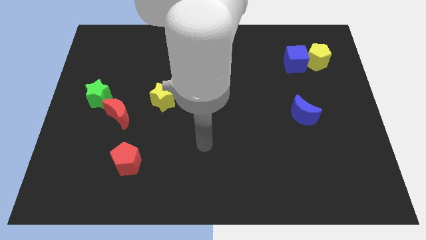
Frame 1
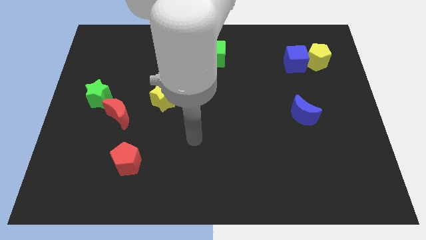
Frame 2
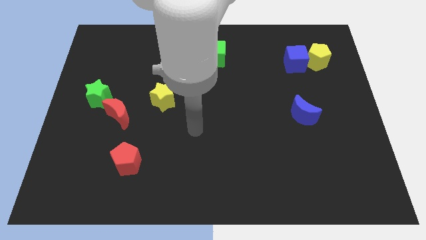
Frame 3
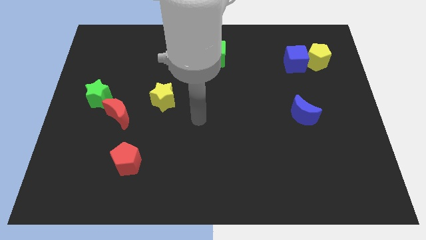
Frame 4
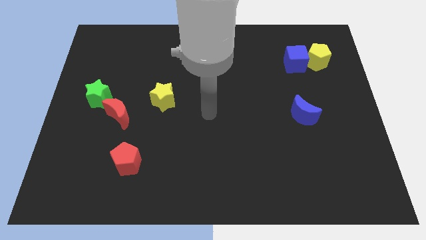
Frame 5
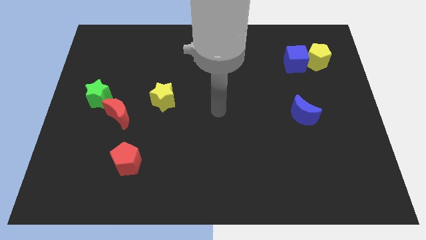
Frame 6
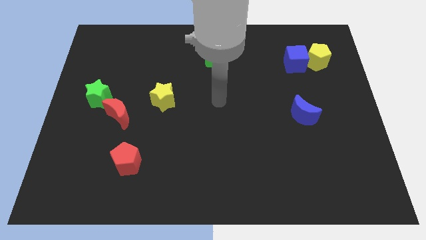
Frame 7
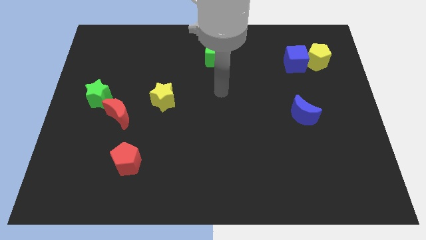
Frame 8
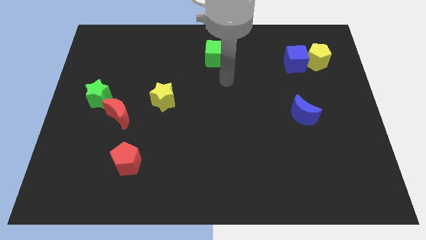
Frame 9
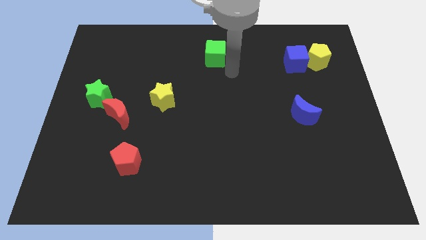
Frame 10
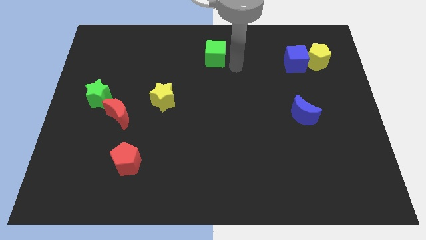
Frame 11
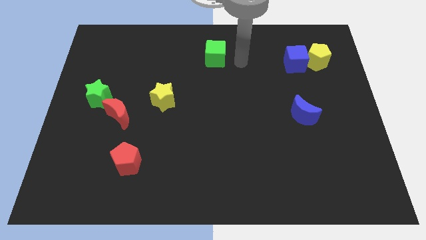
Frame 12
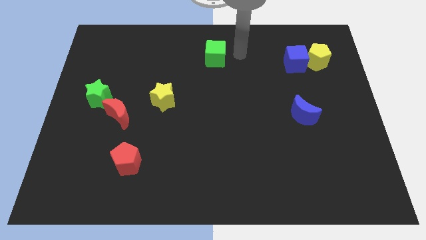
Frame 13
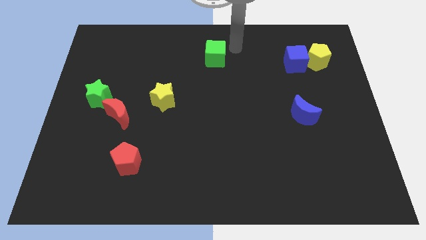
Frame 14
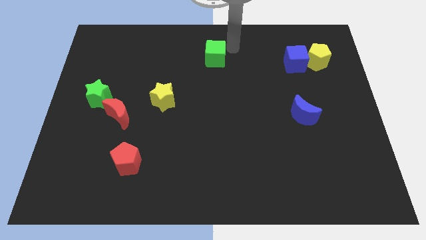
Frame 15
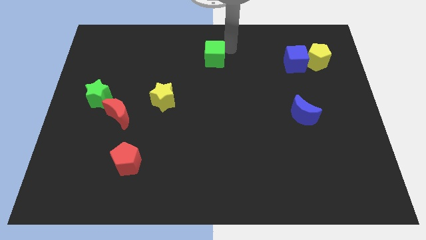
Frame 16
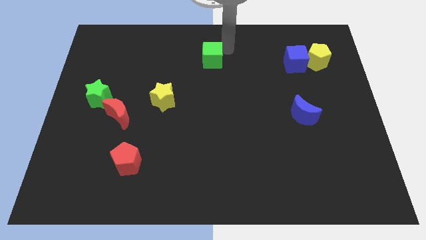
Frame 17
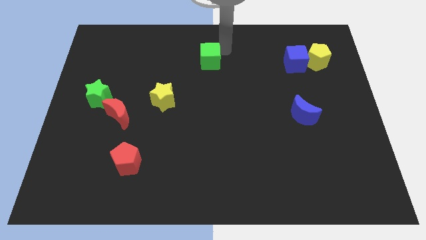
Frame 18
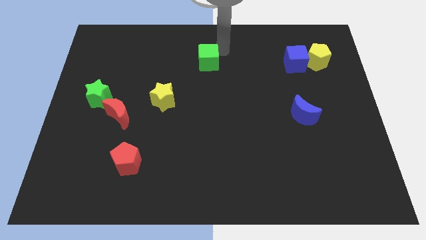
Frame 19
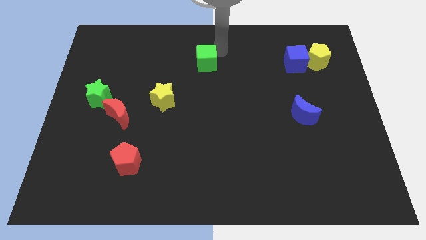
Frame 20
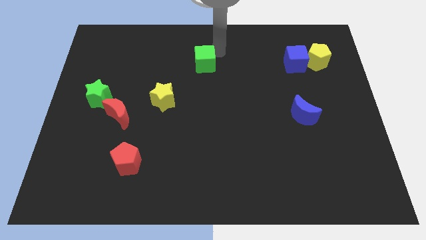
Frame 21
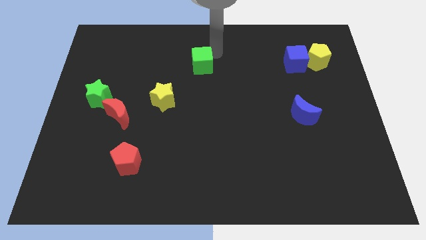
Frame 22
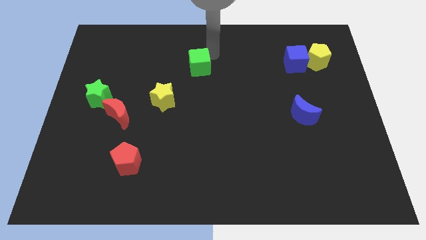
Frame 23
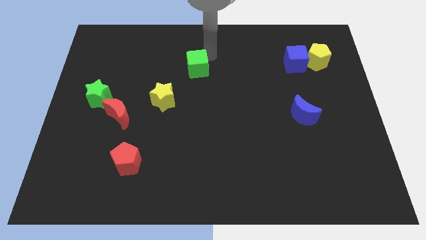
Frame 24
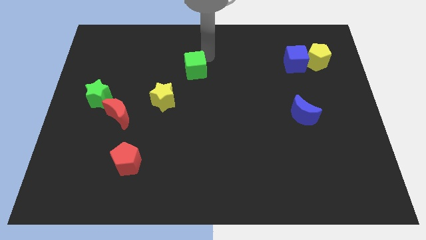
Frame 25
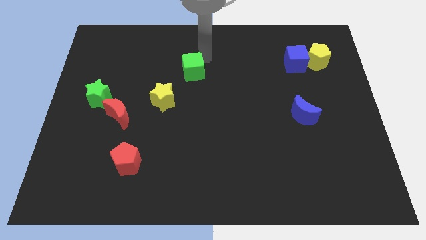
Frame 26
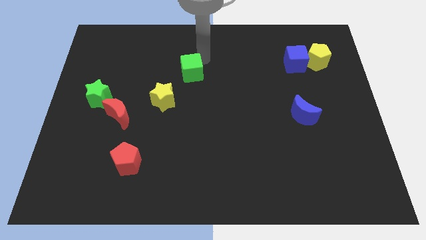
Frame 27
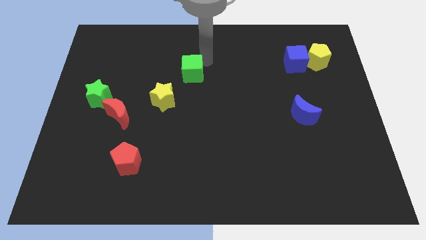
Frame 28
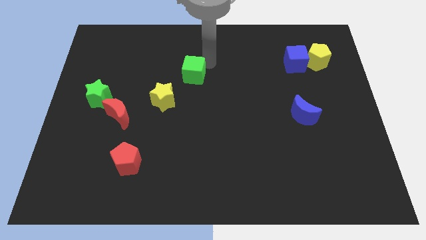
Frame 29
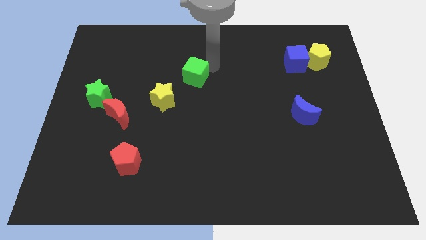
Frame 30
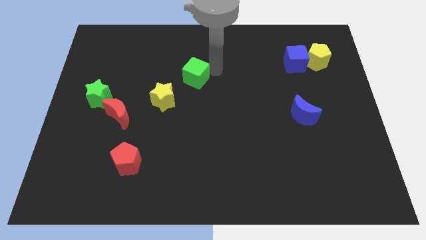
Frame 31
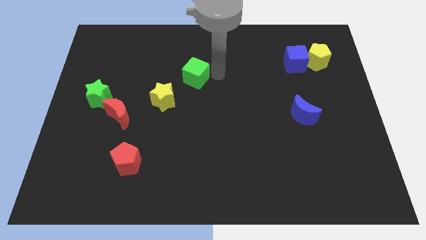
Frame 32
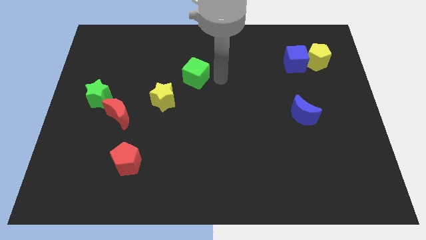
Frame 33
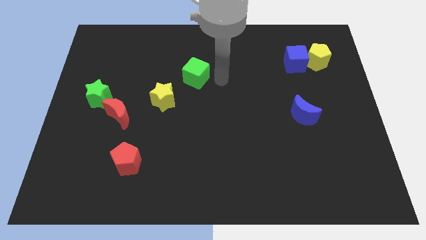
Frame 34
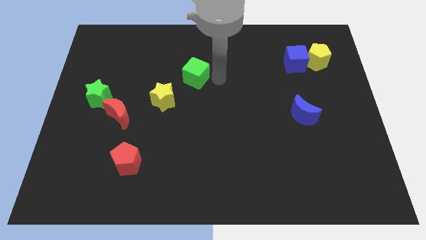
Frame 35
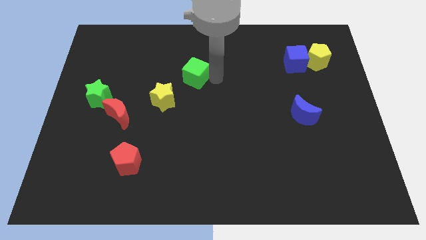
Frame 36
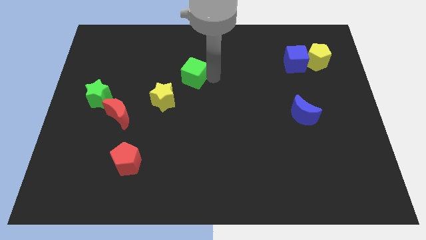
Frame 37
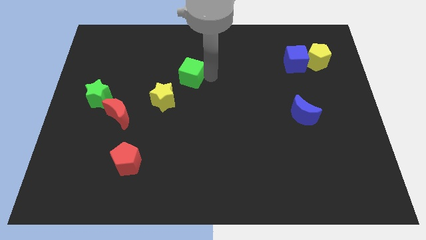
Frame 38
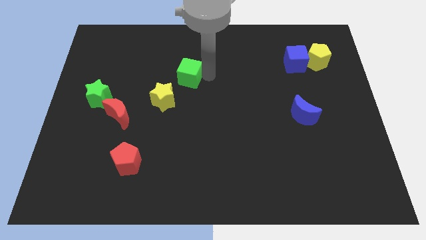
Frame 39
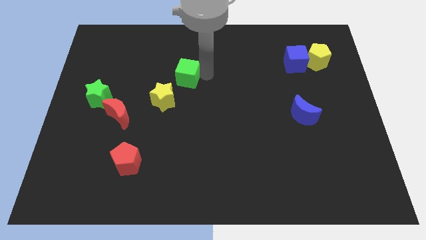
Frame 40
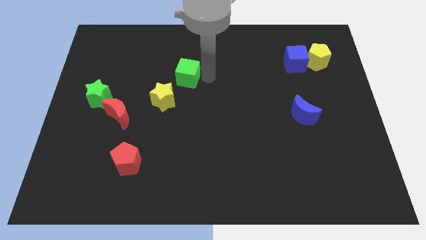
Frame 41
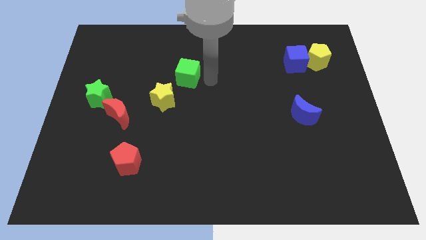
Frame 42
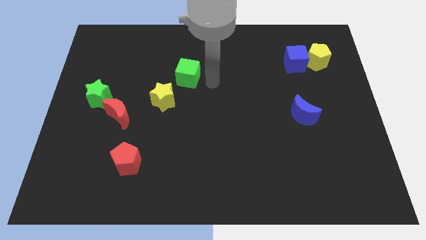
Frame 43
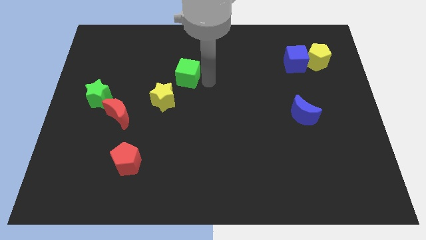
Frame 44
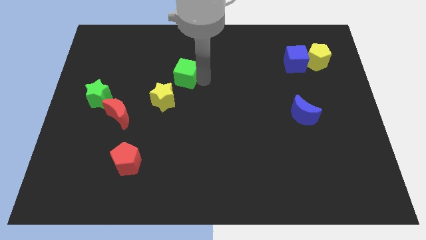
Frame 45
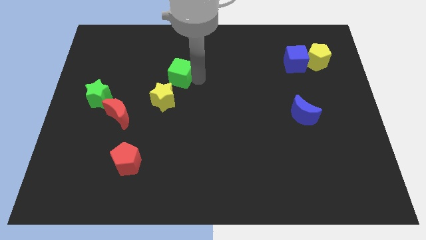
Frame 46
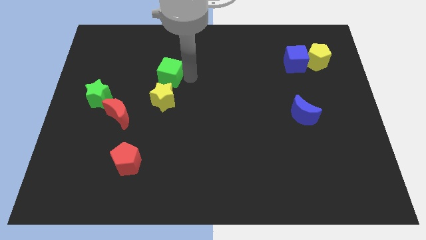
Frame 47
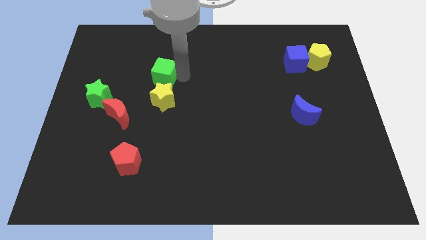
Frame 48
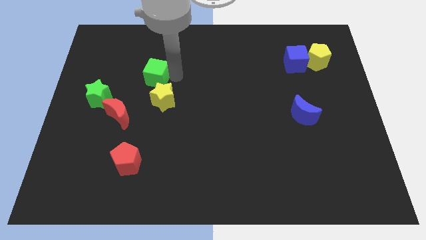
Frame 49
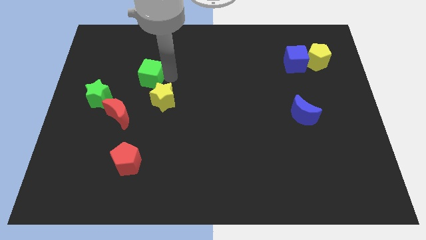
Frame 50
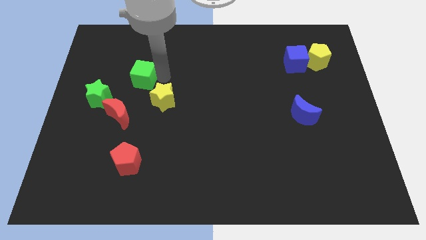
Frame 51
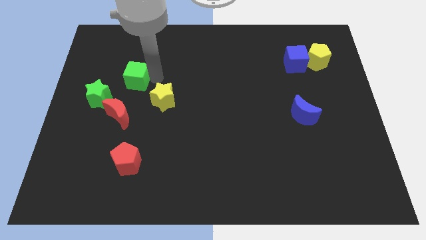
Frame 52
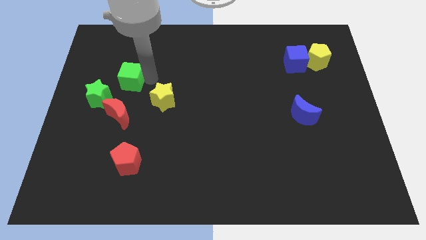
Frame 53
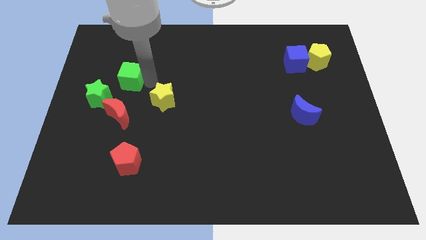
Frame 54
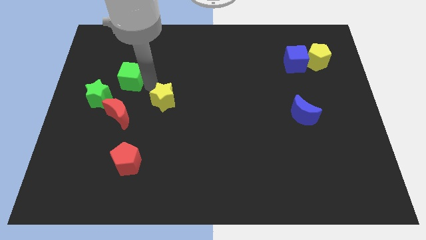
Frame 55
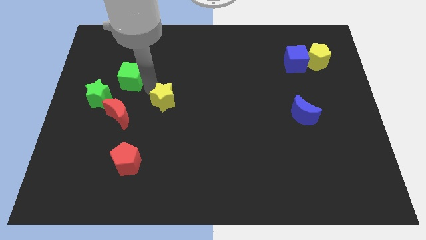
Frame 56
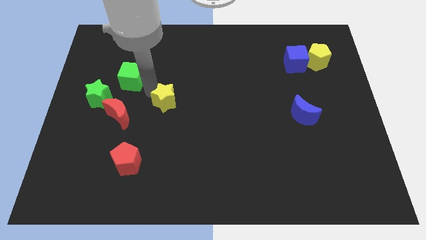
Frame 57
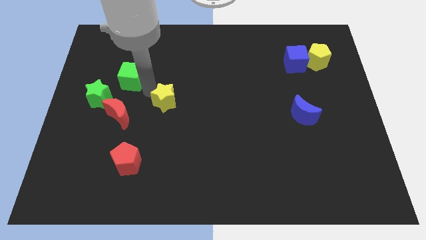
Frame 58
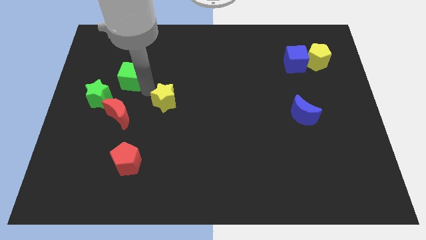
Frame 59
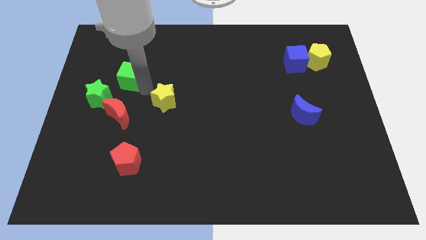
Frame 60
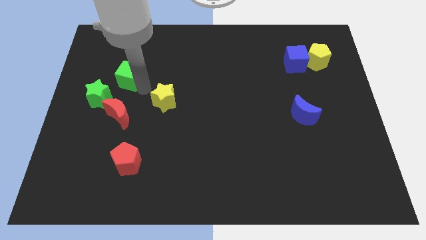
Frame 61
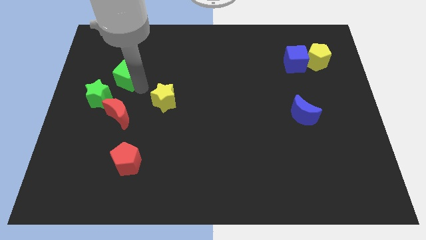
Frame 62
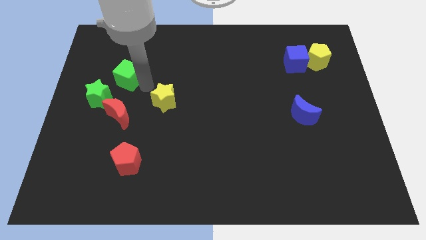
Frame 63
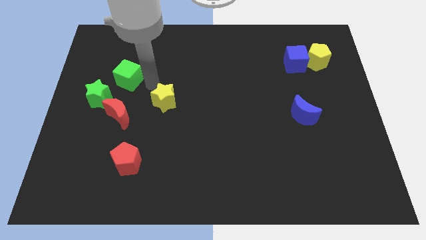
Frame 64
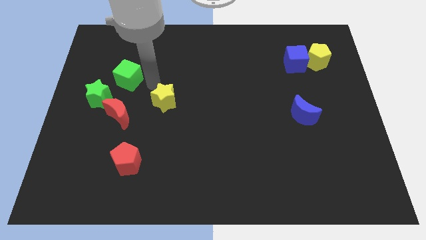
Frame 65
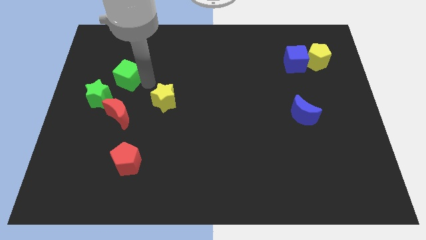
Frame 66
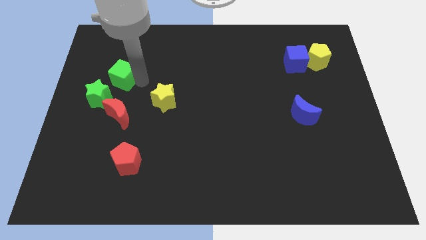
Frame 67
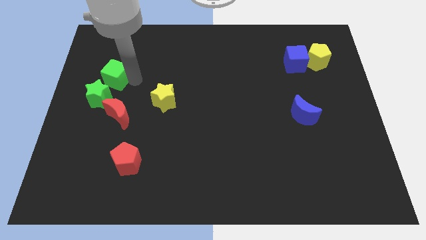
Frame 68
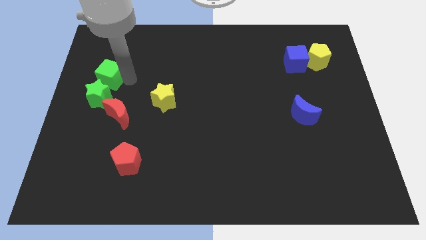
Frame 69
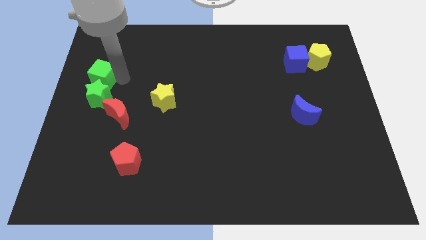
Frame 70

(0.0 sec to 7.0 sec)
slide the green cube to the left side
